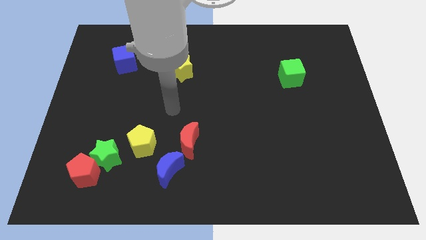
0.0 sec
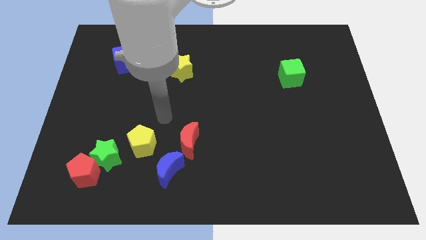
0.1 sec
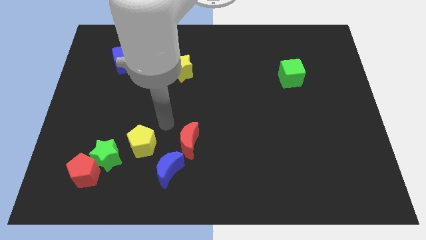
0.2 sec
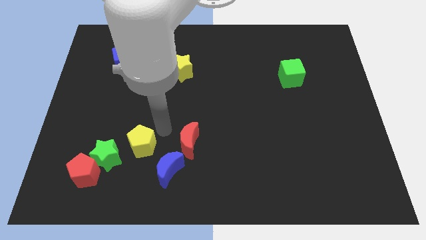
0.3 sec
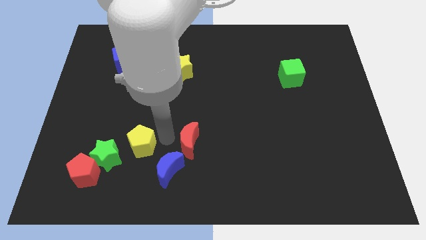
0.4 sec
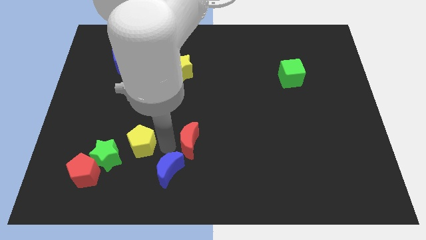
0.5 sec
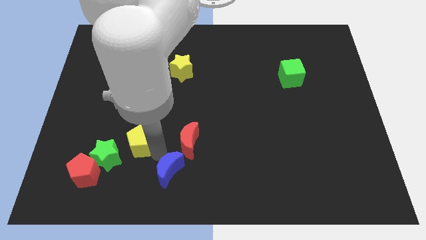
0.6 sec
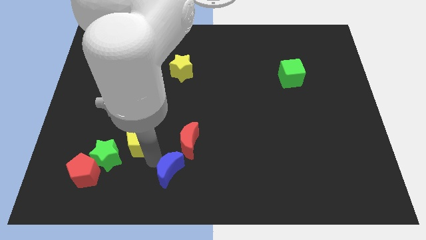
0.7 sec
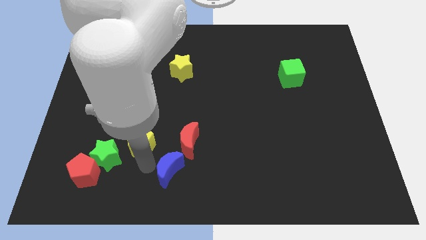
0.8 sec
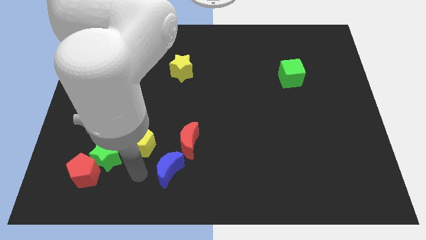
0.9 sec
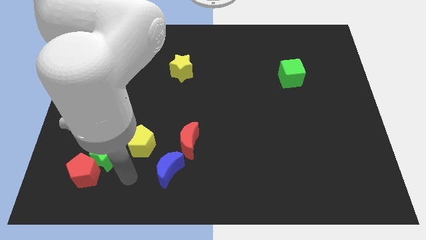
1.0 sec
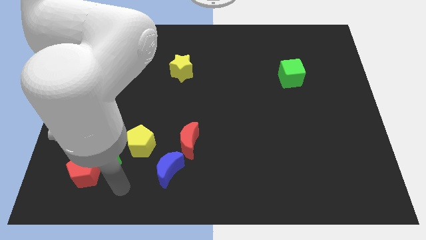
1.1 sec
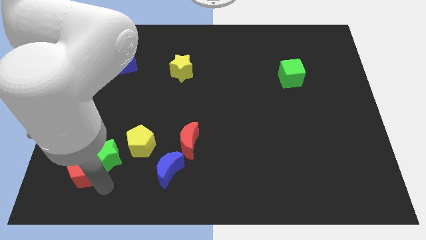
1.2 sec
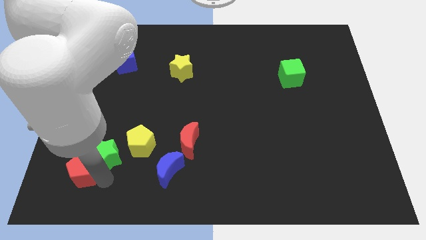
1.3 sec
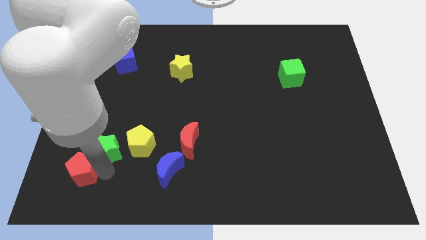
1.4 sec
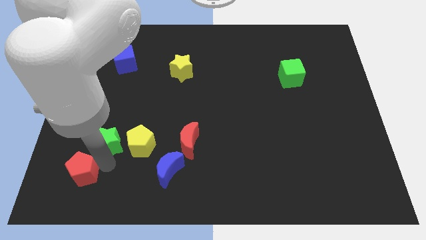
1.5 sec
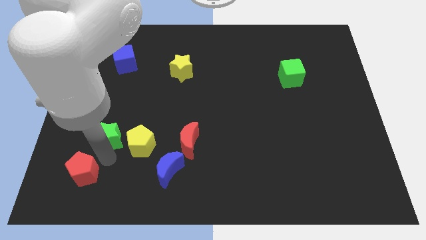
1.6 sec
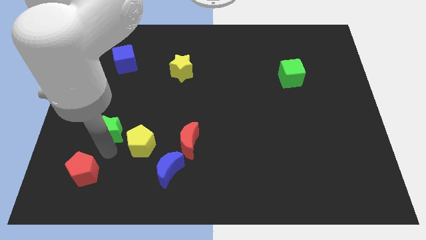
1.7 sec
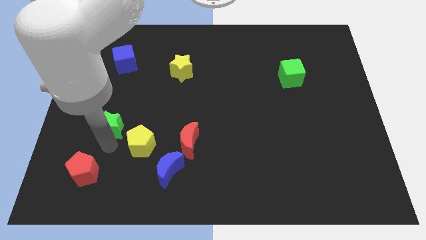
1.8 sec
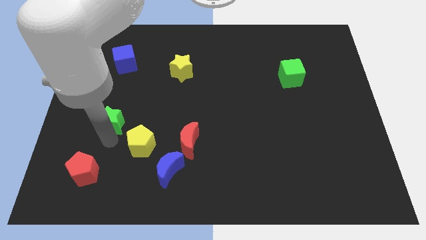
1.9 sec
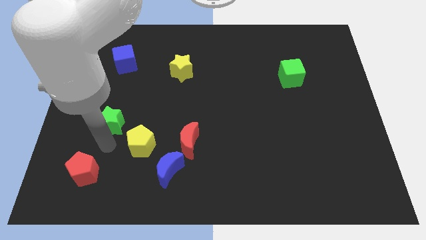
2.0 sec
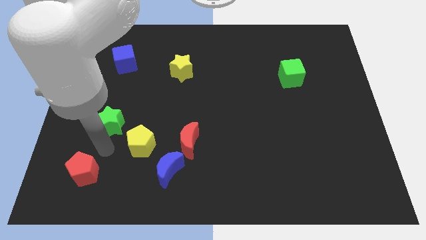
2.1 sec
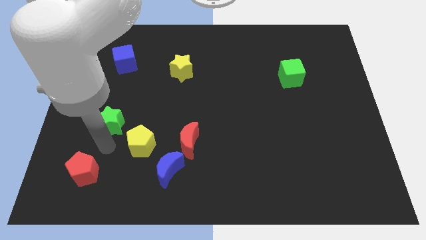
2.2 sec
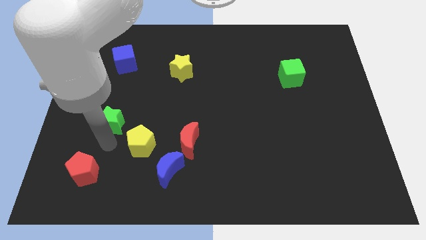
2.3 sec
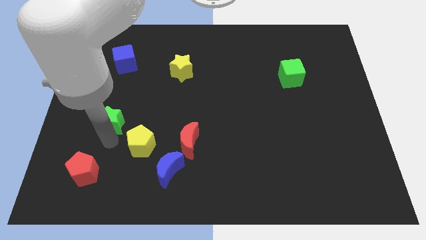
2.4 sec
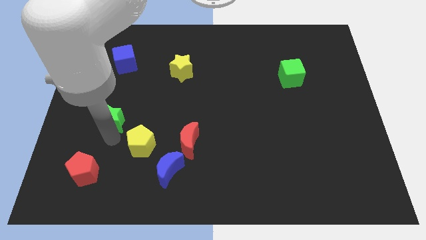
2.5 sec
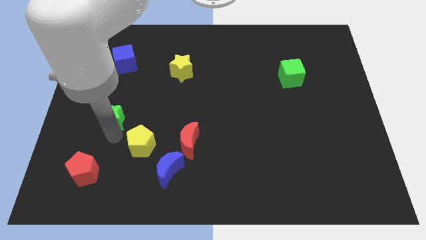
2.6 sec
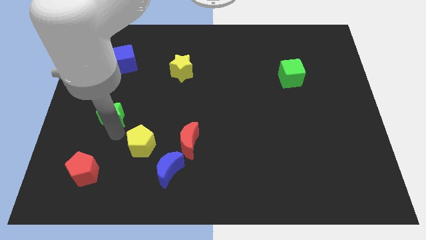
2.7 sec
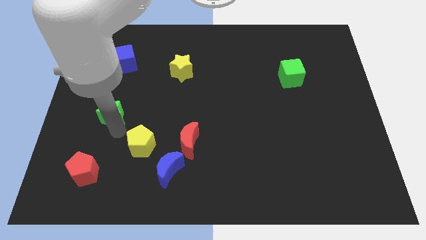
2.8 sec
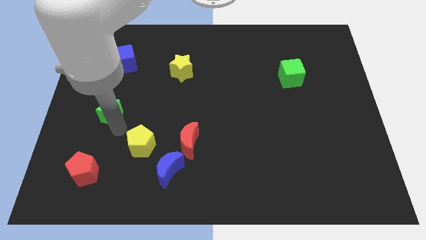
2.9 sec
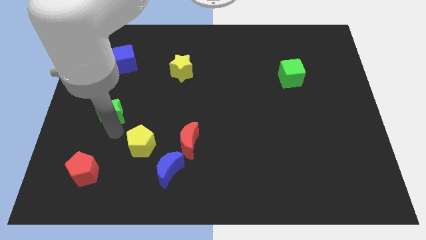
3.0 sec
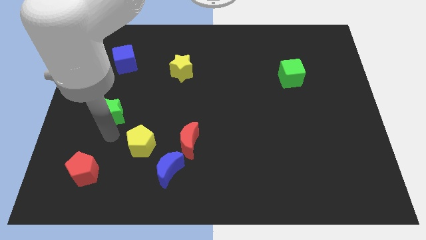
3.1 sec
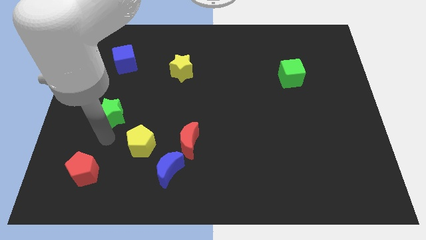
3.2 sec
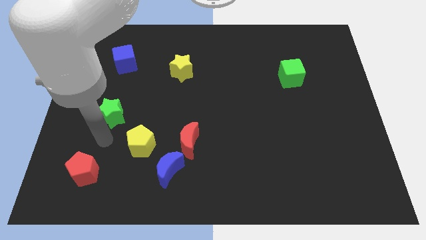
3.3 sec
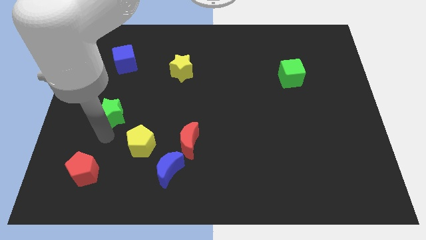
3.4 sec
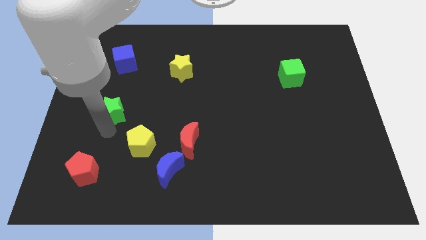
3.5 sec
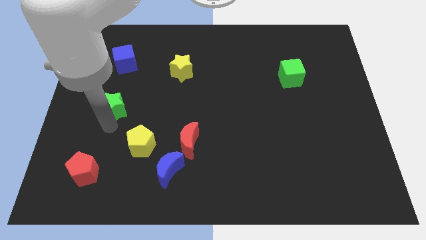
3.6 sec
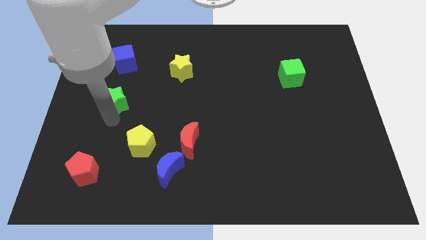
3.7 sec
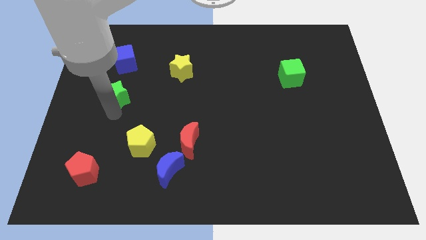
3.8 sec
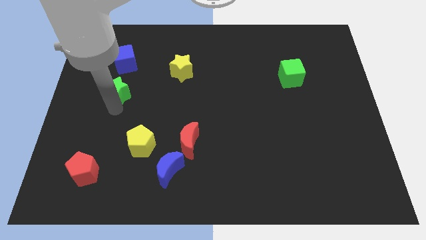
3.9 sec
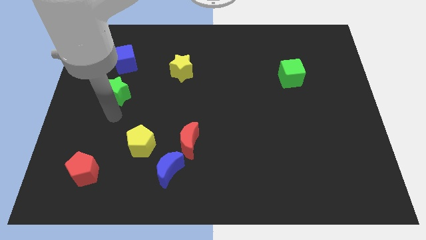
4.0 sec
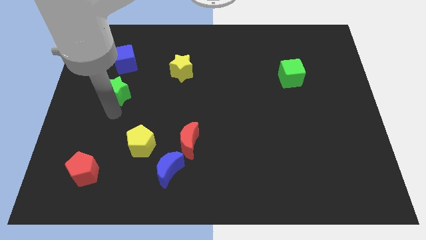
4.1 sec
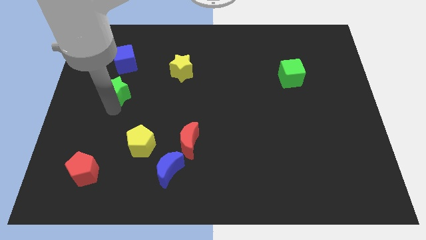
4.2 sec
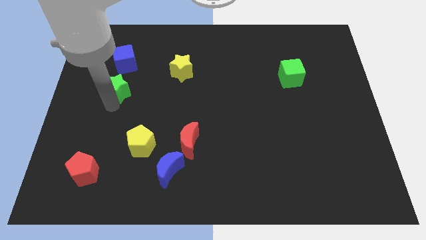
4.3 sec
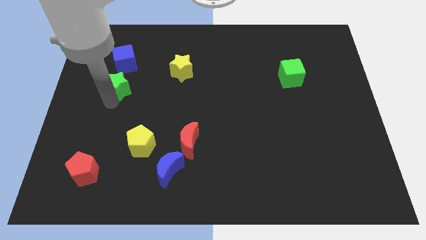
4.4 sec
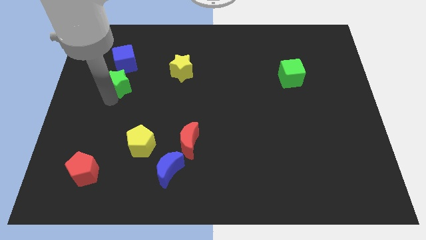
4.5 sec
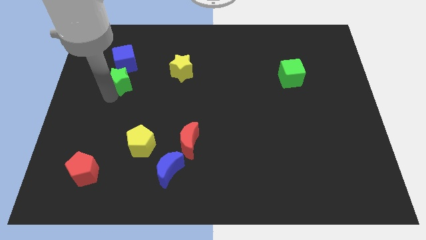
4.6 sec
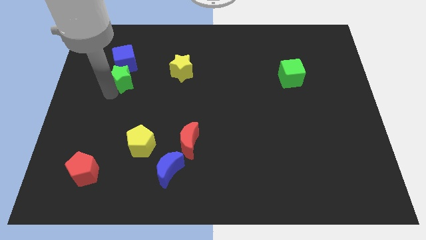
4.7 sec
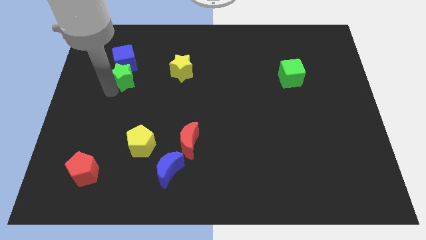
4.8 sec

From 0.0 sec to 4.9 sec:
push the green star close to the blue cube

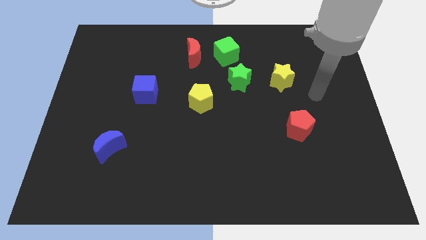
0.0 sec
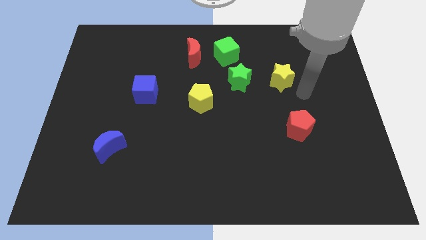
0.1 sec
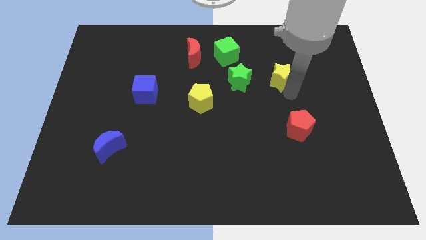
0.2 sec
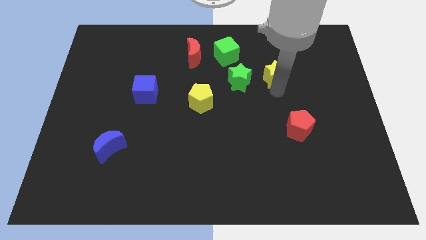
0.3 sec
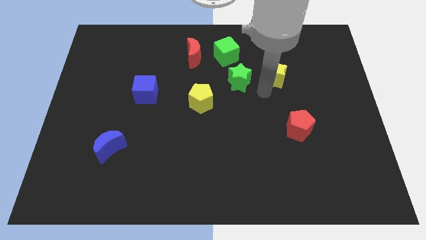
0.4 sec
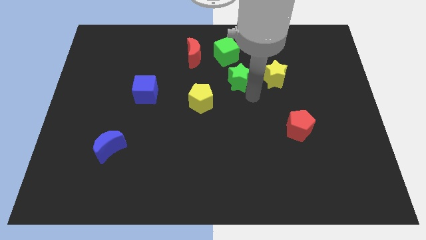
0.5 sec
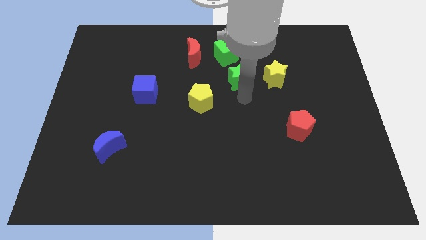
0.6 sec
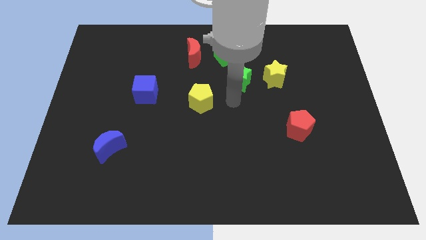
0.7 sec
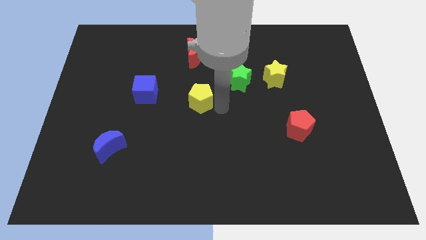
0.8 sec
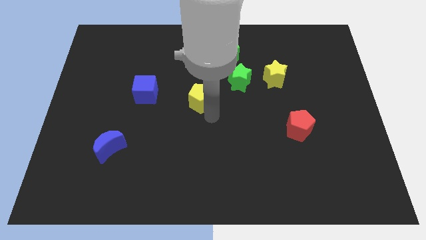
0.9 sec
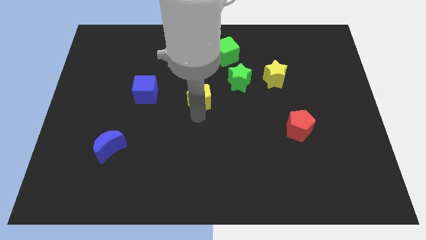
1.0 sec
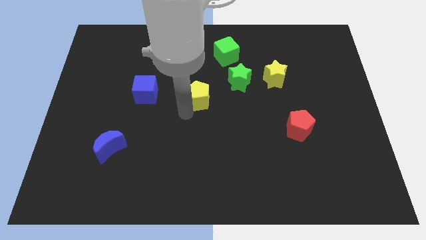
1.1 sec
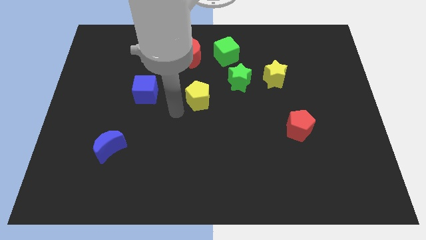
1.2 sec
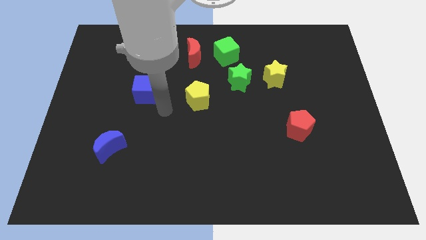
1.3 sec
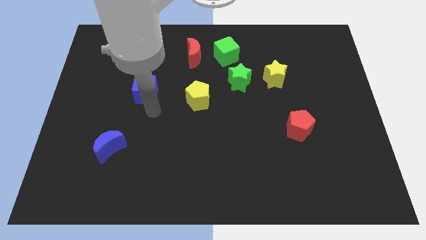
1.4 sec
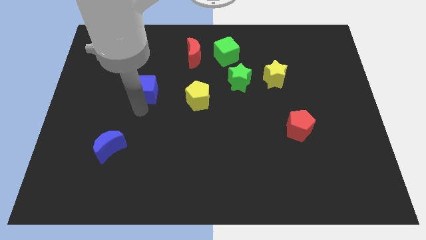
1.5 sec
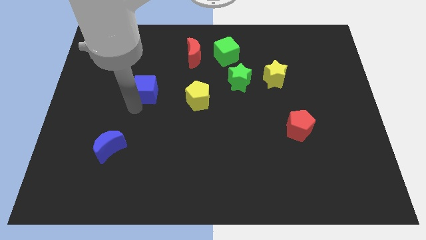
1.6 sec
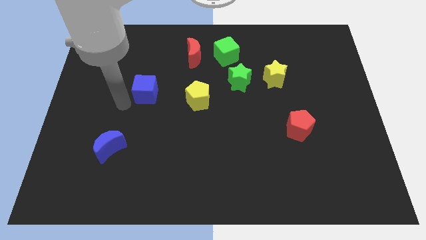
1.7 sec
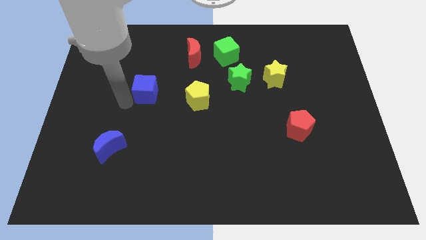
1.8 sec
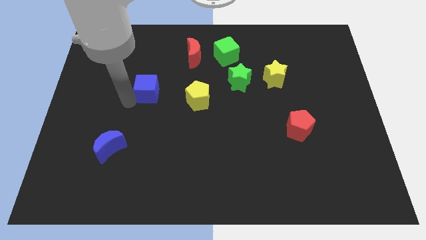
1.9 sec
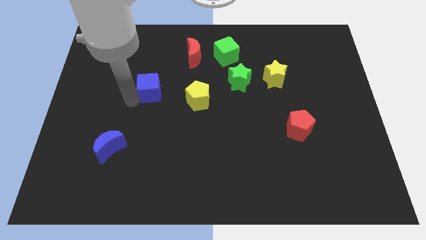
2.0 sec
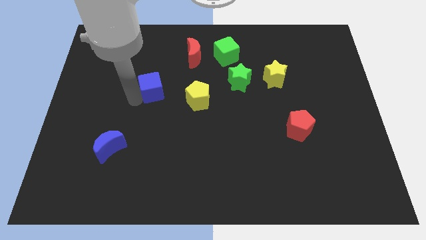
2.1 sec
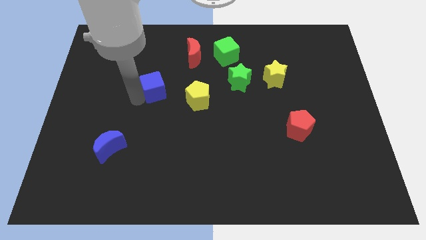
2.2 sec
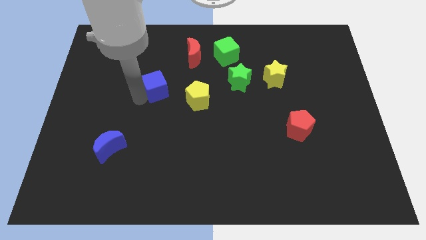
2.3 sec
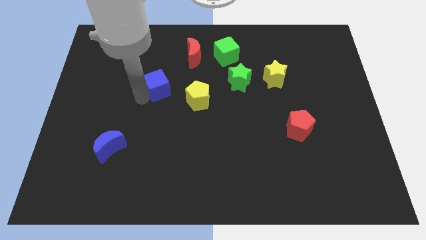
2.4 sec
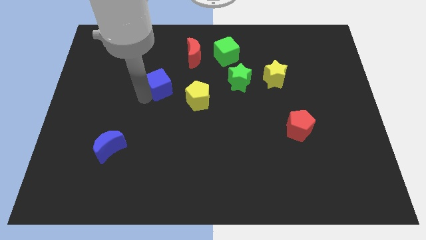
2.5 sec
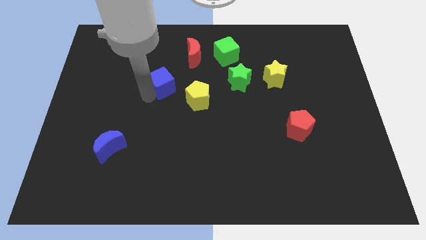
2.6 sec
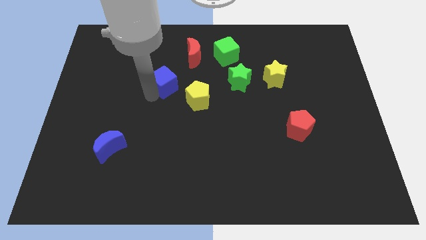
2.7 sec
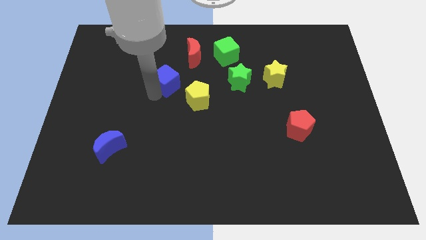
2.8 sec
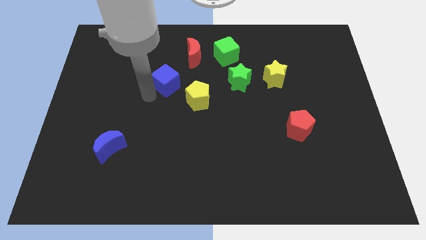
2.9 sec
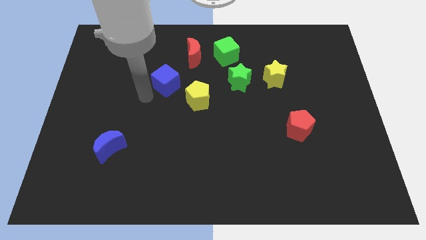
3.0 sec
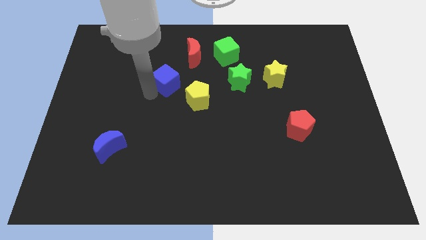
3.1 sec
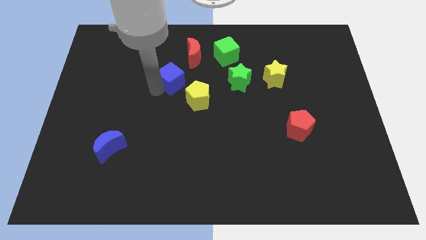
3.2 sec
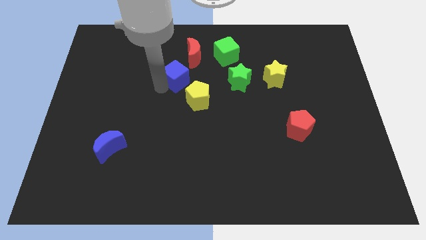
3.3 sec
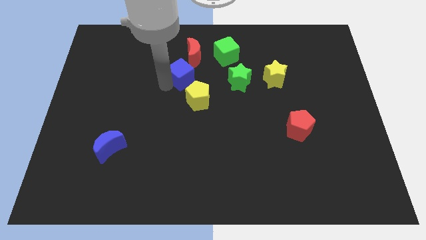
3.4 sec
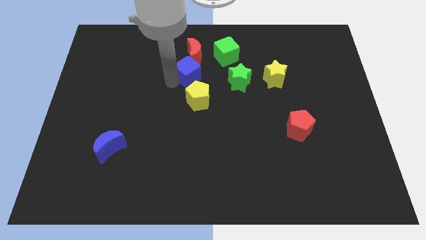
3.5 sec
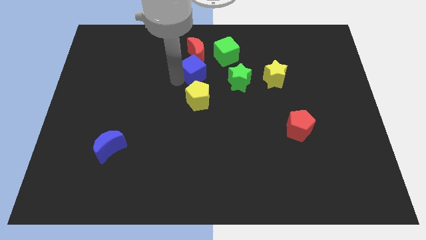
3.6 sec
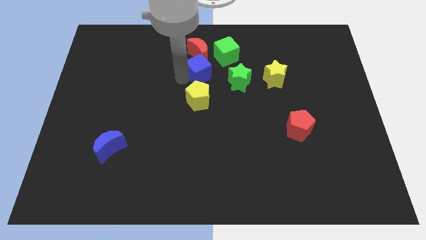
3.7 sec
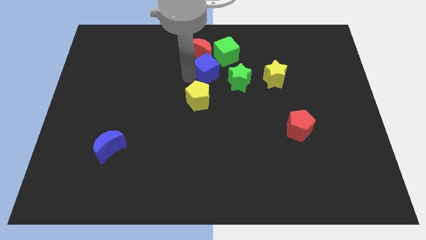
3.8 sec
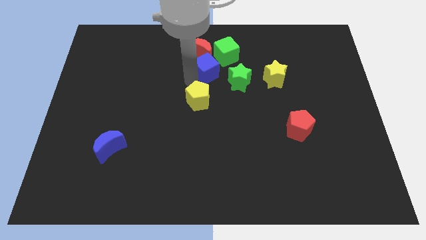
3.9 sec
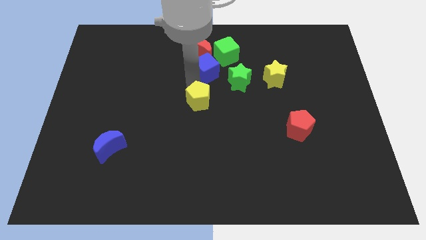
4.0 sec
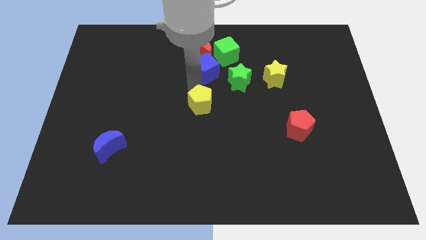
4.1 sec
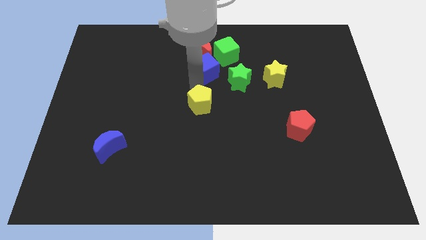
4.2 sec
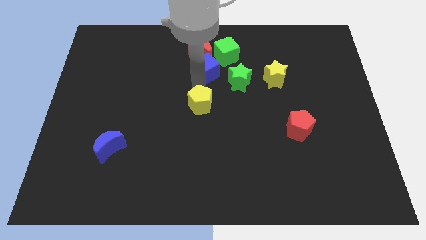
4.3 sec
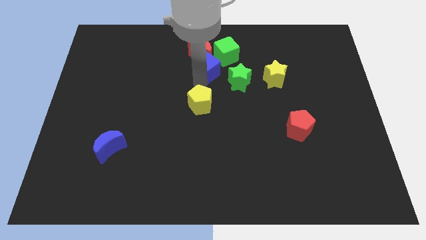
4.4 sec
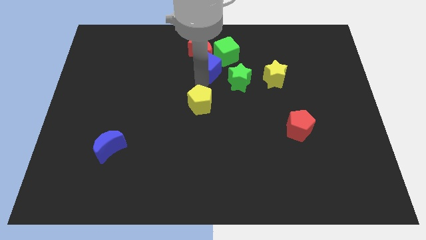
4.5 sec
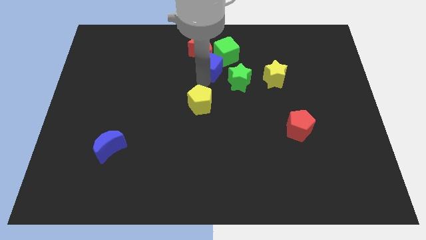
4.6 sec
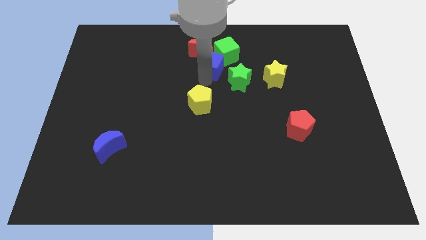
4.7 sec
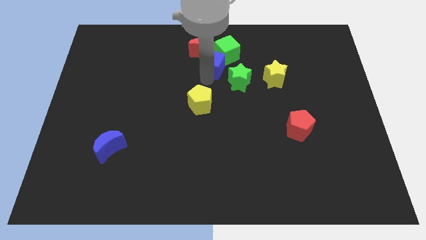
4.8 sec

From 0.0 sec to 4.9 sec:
slide the blue cube to the green cube
